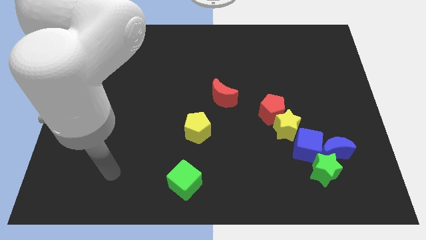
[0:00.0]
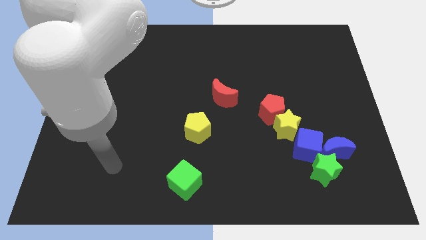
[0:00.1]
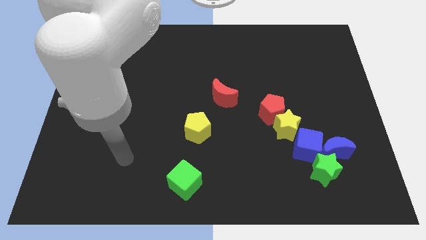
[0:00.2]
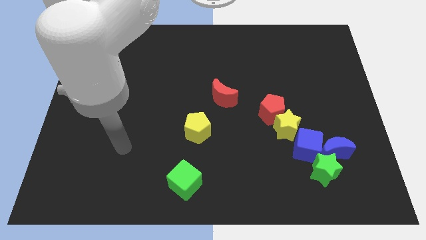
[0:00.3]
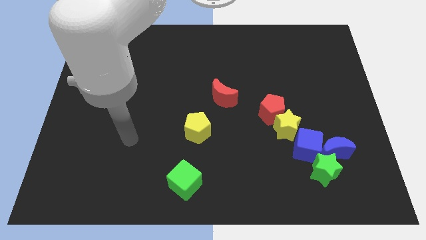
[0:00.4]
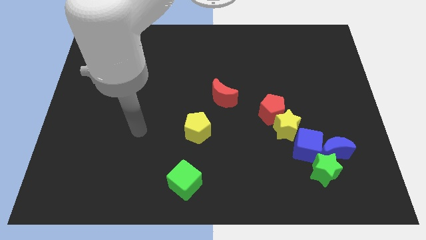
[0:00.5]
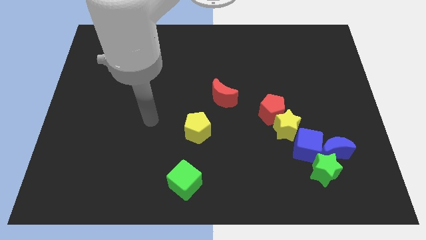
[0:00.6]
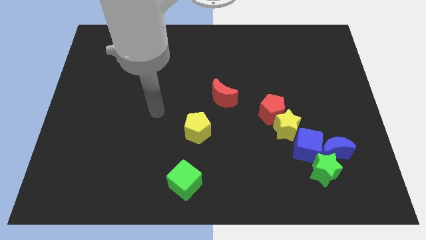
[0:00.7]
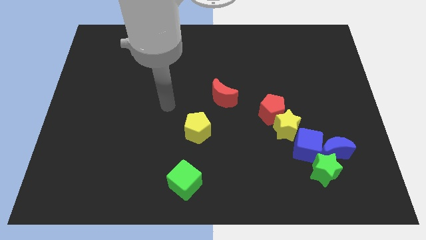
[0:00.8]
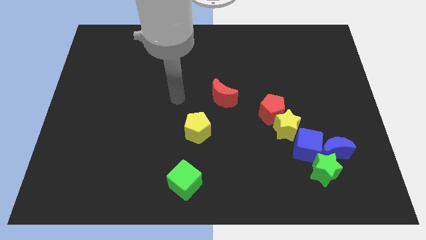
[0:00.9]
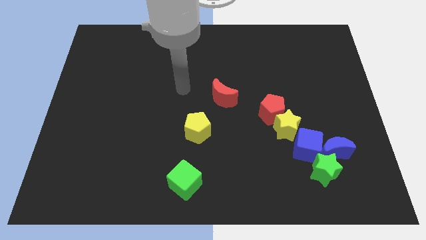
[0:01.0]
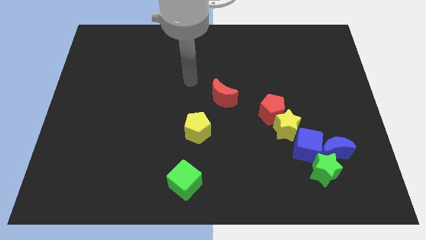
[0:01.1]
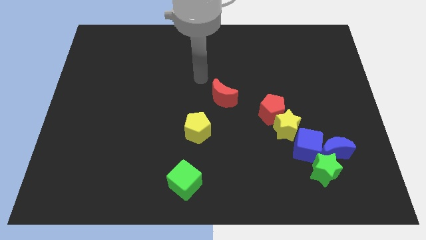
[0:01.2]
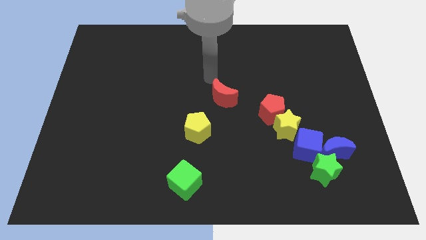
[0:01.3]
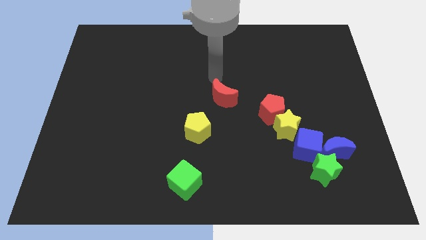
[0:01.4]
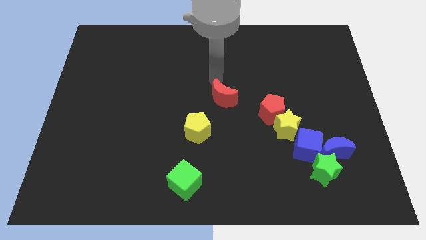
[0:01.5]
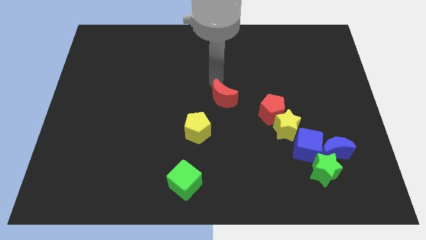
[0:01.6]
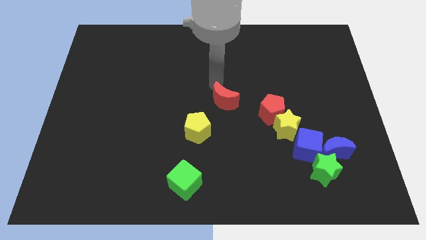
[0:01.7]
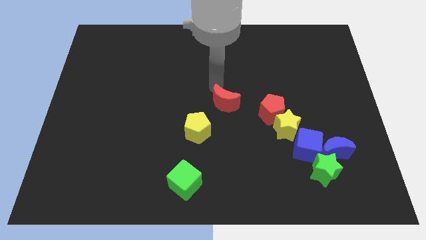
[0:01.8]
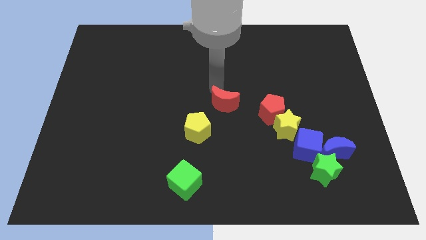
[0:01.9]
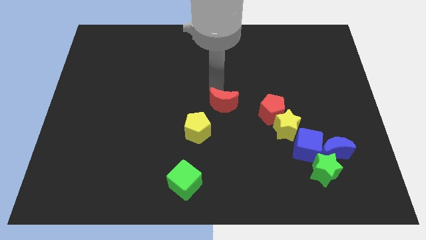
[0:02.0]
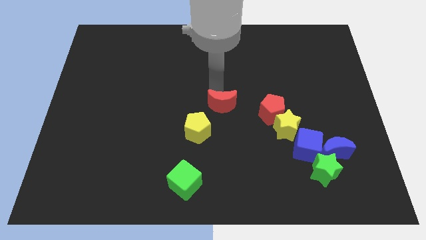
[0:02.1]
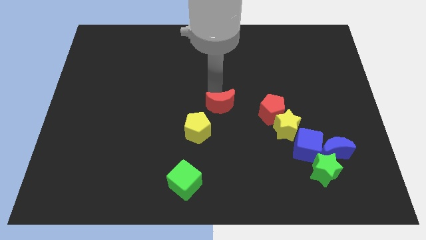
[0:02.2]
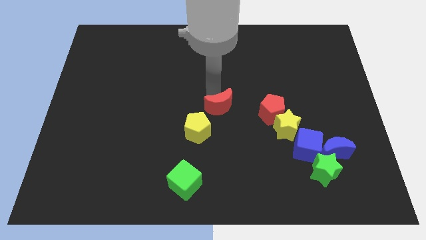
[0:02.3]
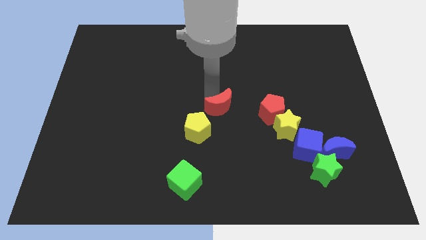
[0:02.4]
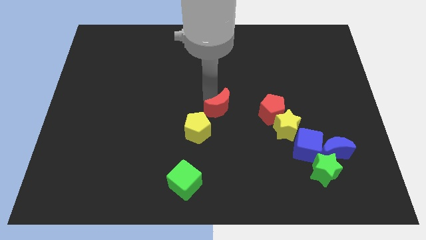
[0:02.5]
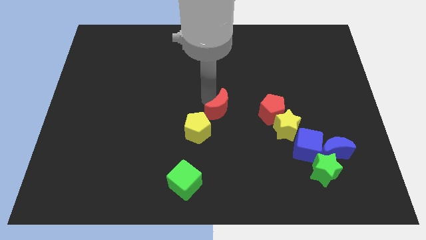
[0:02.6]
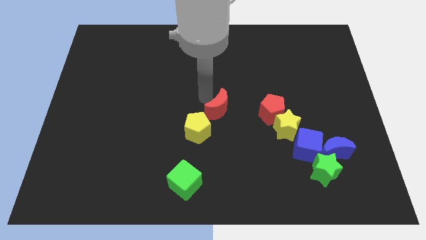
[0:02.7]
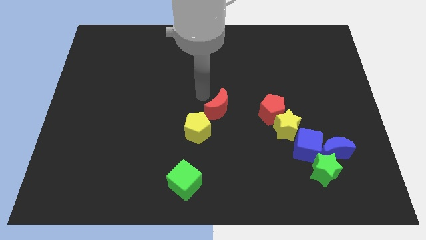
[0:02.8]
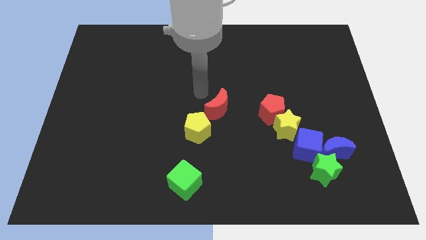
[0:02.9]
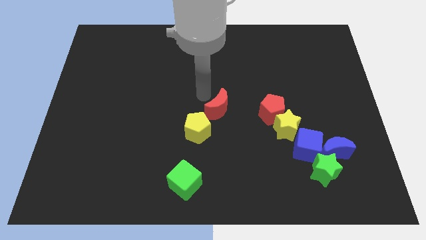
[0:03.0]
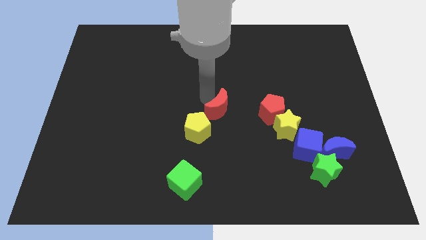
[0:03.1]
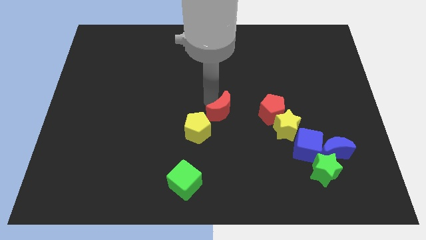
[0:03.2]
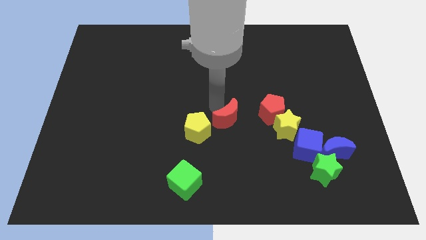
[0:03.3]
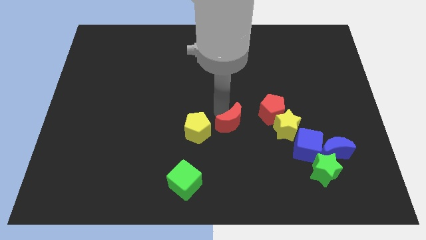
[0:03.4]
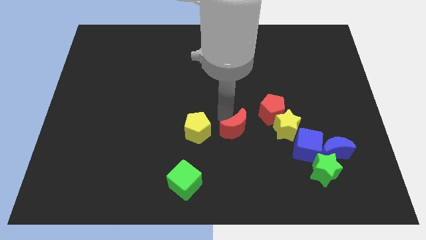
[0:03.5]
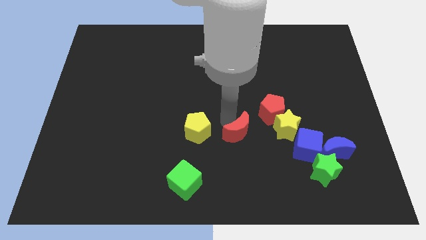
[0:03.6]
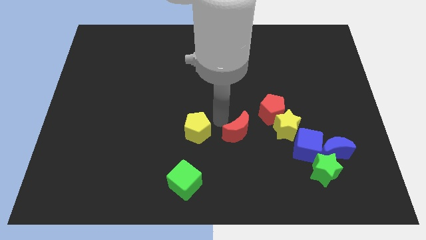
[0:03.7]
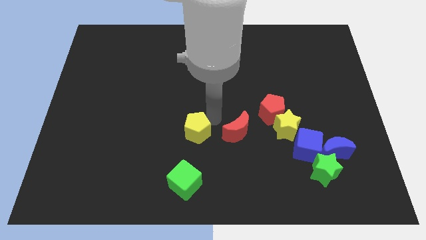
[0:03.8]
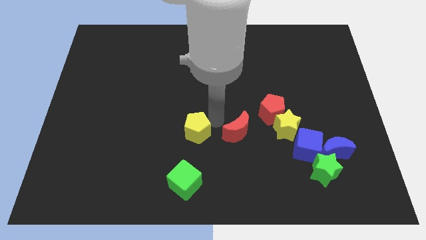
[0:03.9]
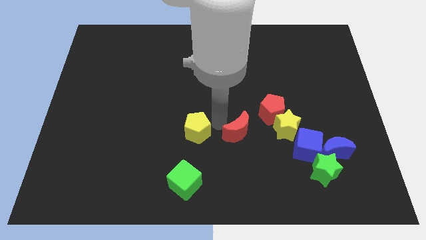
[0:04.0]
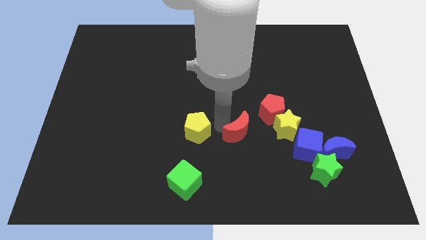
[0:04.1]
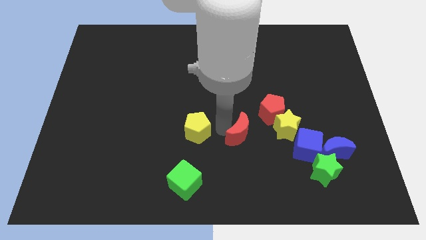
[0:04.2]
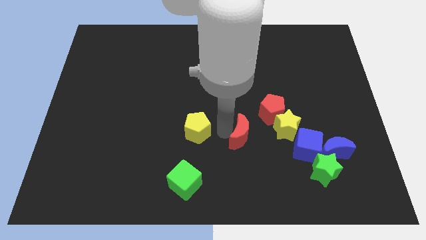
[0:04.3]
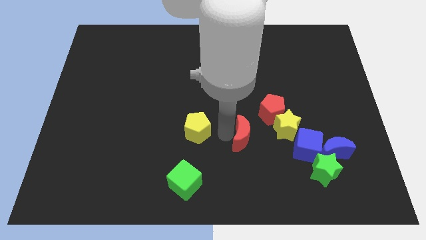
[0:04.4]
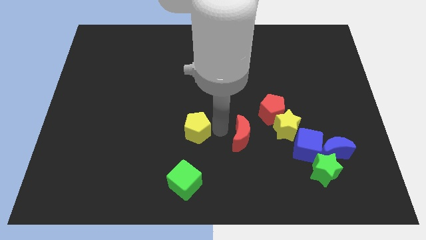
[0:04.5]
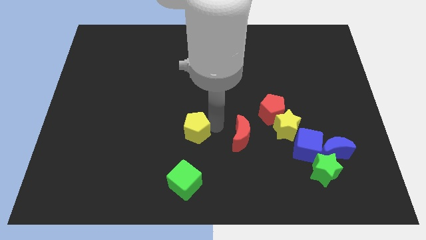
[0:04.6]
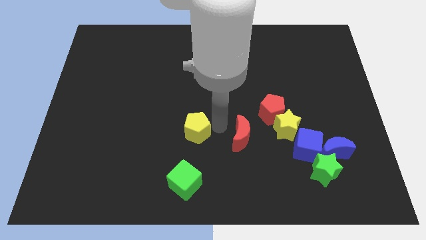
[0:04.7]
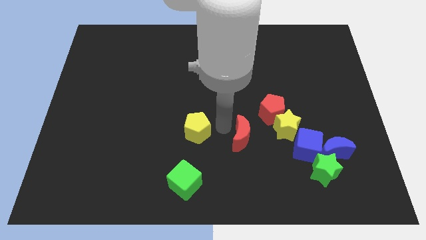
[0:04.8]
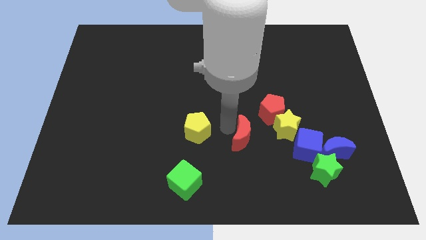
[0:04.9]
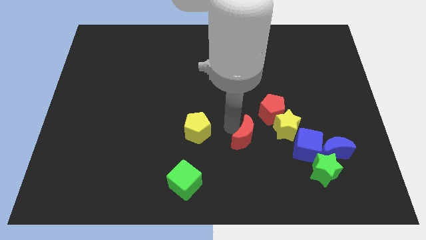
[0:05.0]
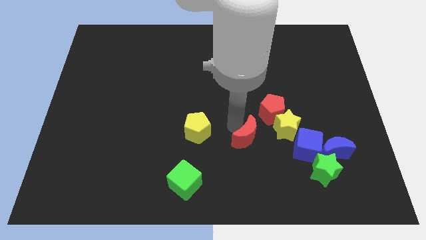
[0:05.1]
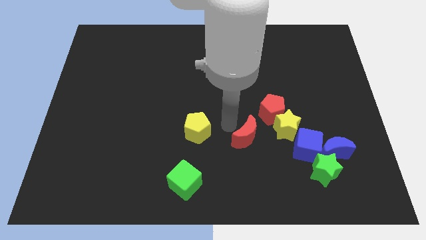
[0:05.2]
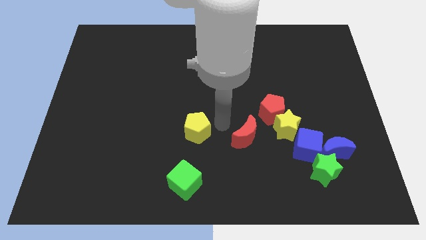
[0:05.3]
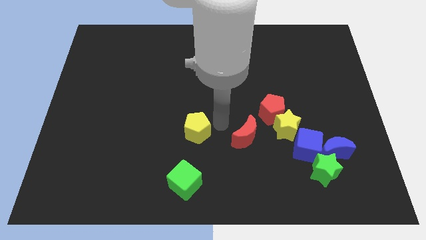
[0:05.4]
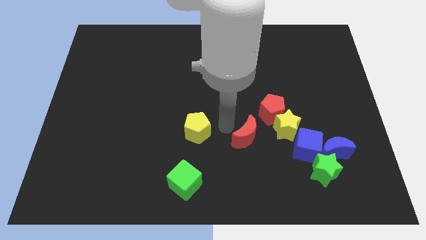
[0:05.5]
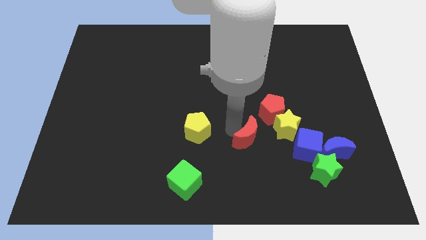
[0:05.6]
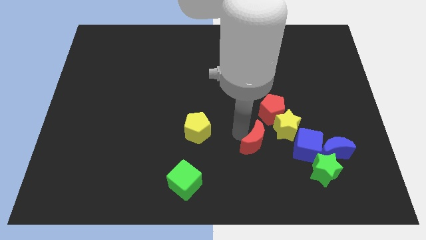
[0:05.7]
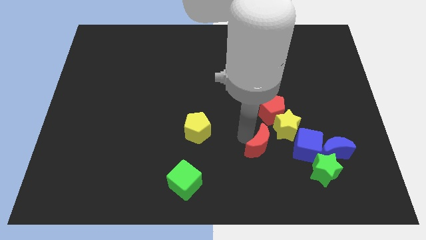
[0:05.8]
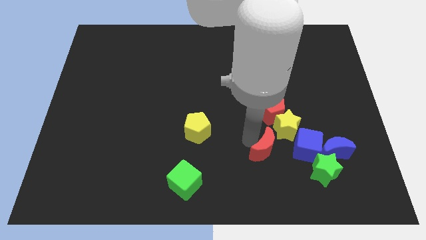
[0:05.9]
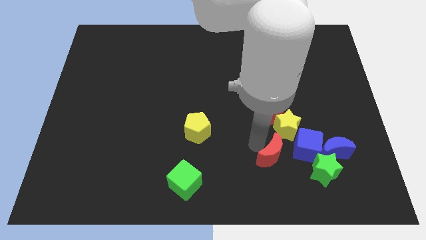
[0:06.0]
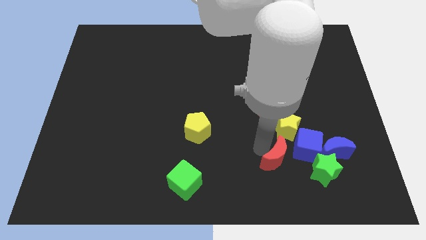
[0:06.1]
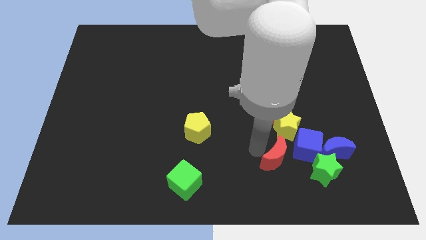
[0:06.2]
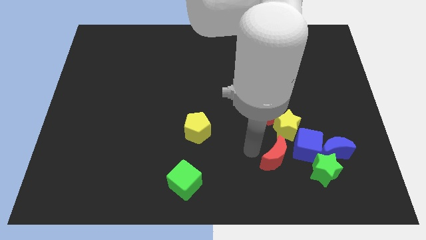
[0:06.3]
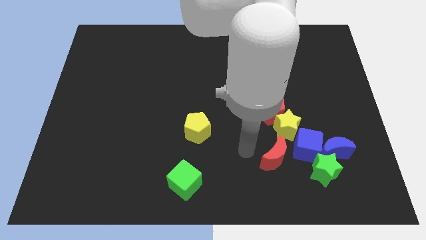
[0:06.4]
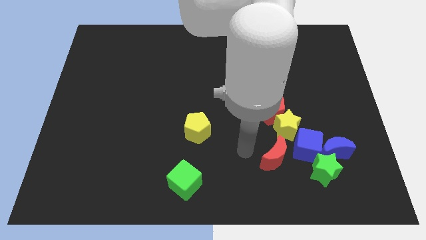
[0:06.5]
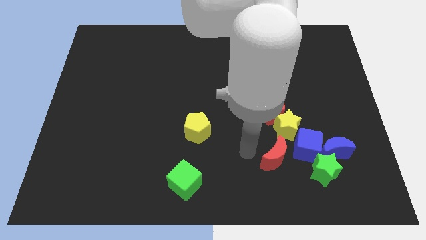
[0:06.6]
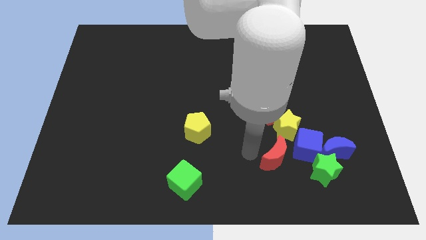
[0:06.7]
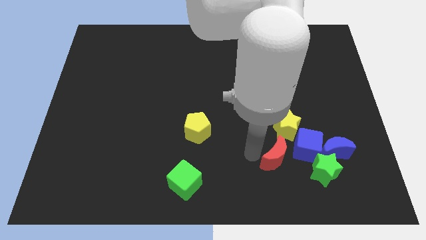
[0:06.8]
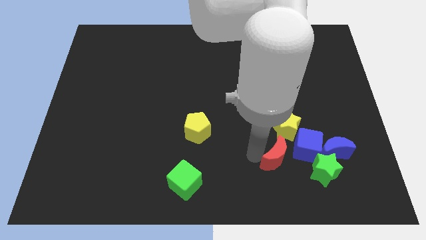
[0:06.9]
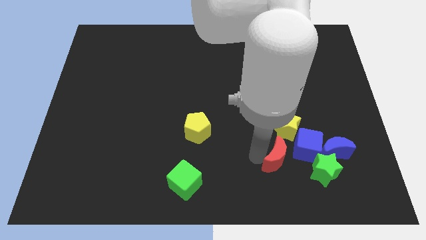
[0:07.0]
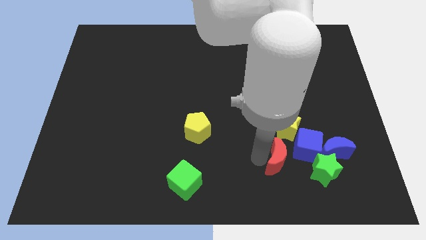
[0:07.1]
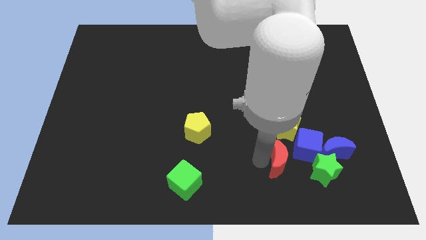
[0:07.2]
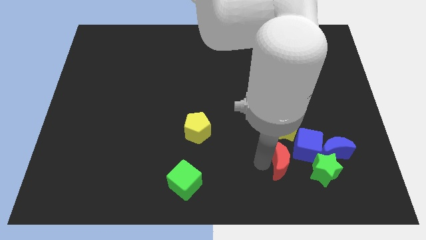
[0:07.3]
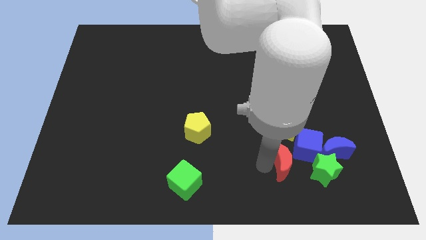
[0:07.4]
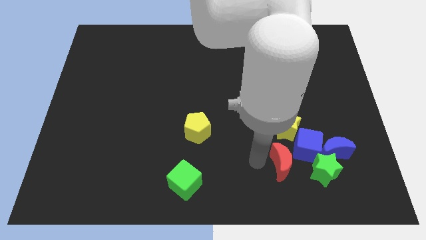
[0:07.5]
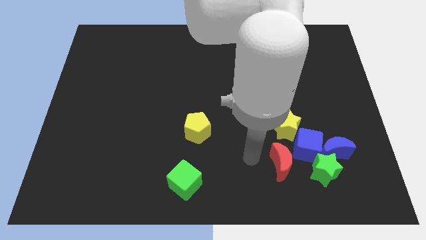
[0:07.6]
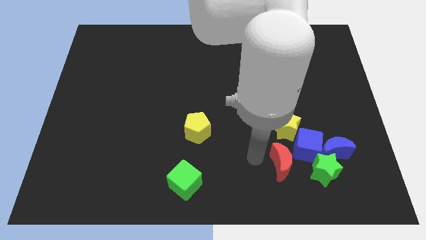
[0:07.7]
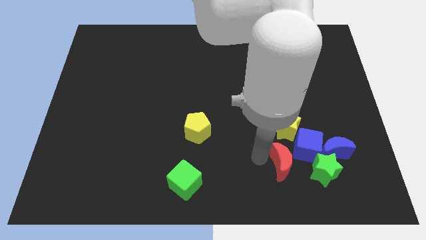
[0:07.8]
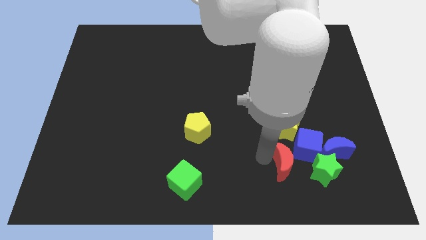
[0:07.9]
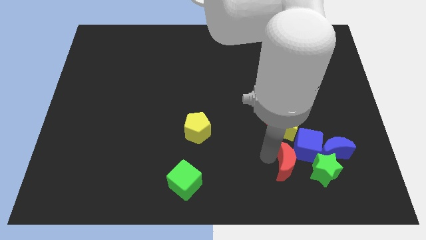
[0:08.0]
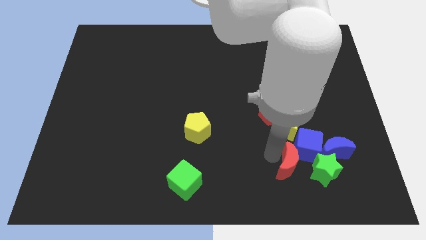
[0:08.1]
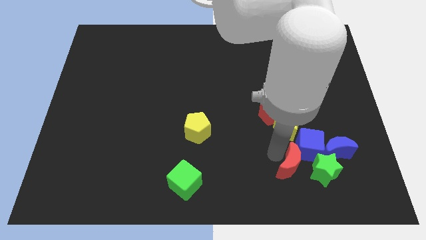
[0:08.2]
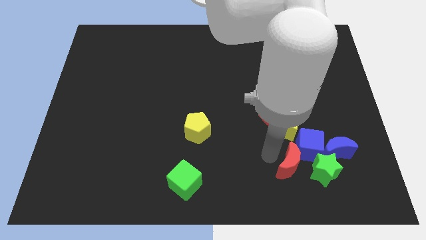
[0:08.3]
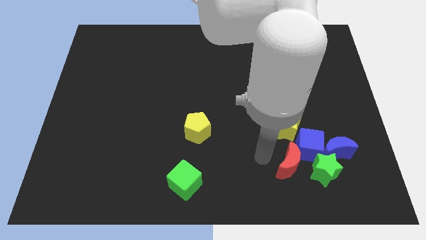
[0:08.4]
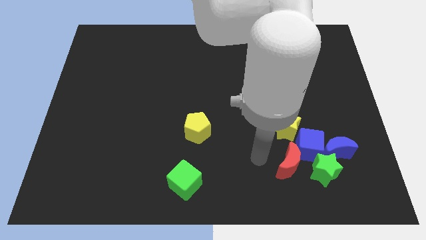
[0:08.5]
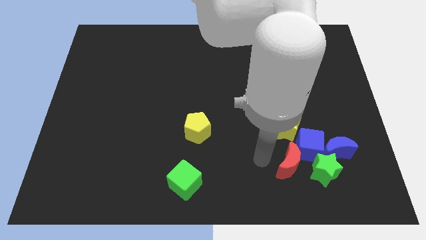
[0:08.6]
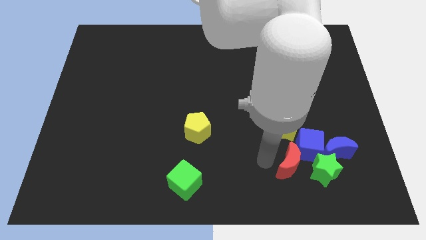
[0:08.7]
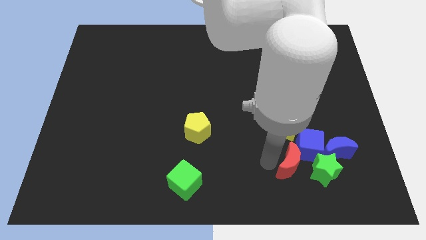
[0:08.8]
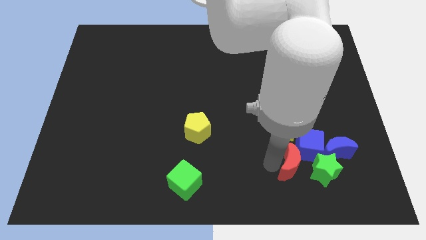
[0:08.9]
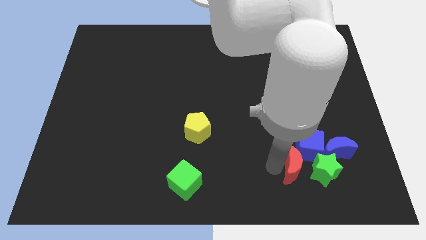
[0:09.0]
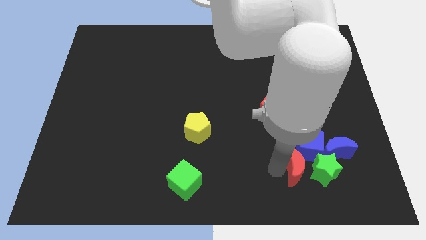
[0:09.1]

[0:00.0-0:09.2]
put the red moon towards the green star
